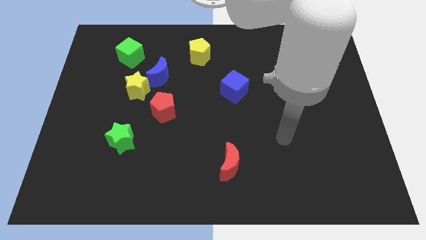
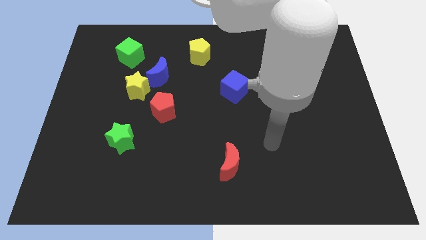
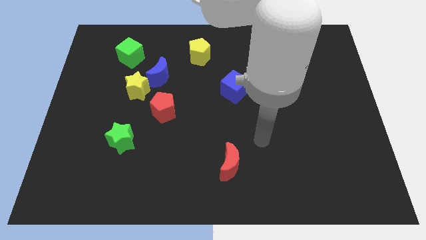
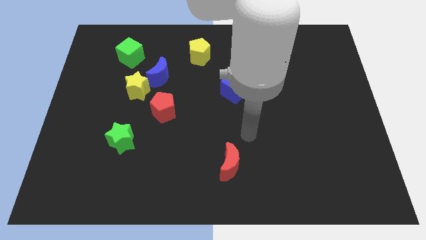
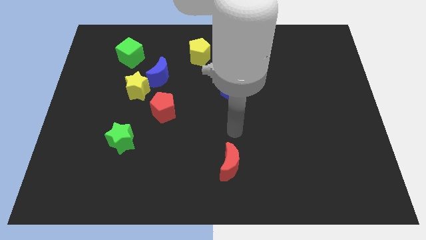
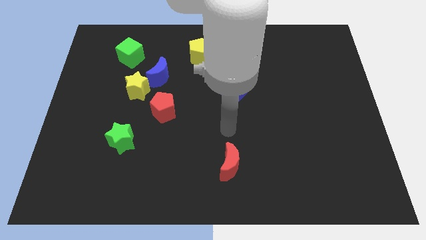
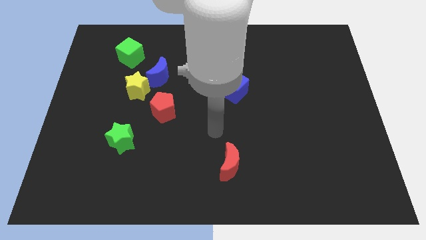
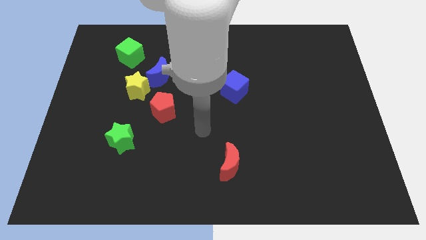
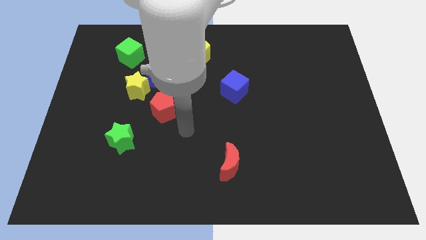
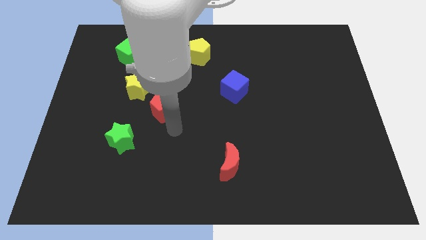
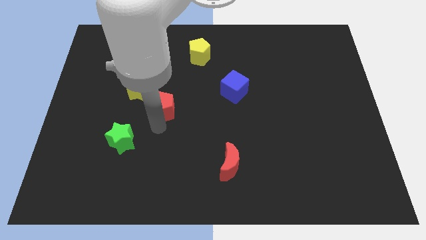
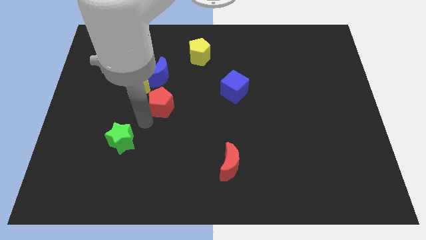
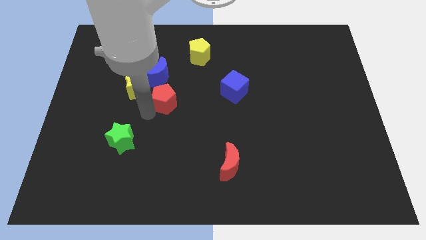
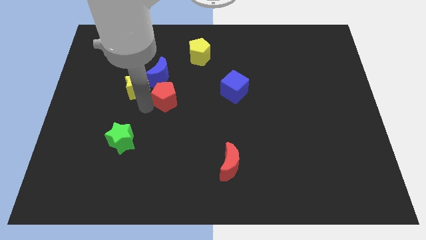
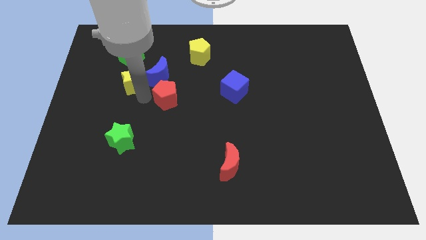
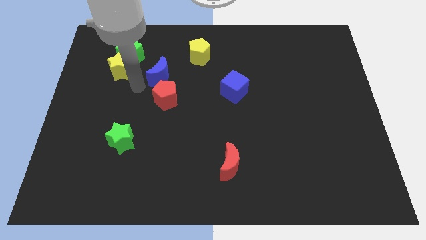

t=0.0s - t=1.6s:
move the blue moon away from the yellow star

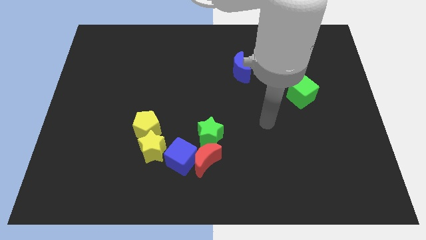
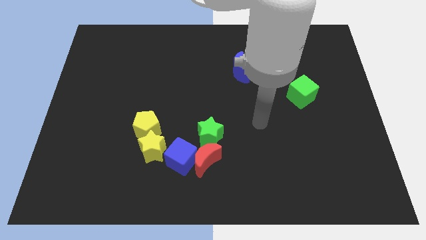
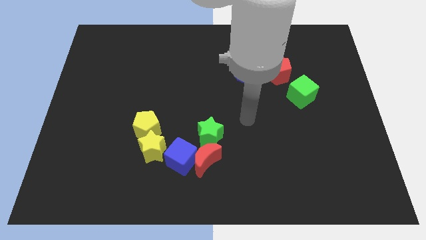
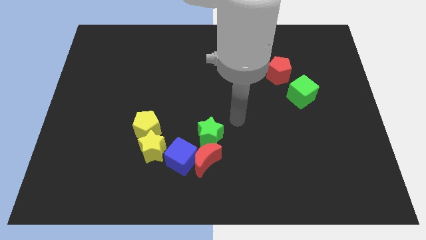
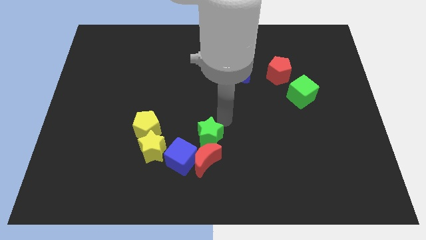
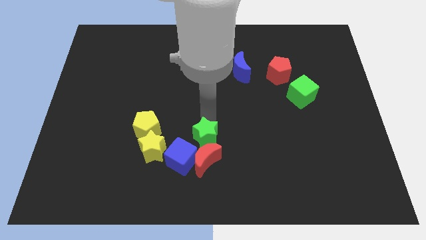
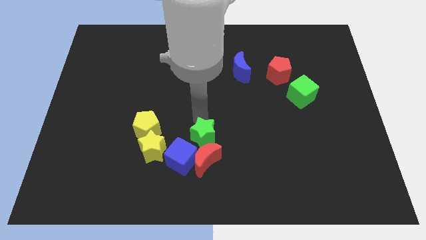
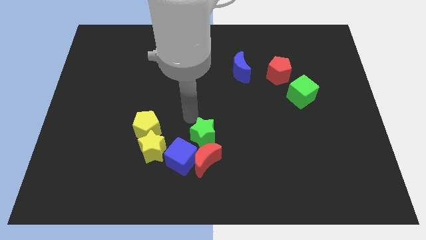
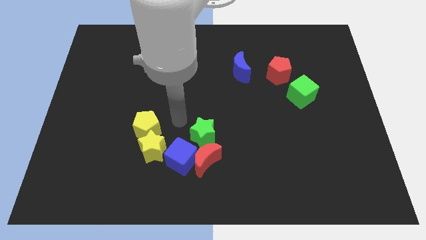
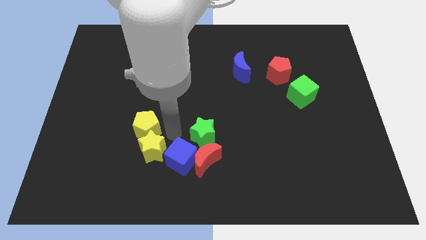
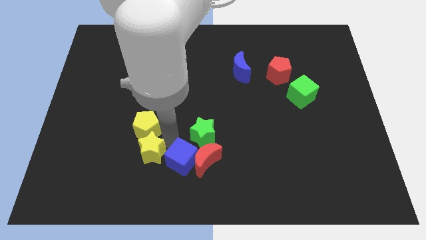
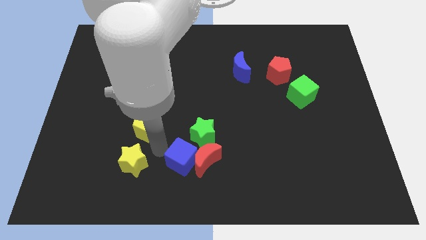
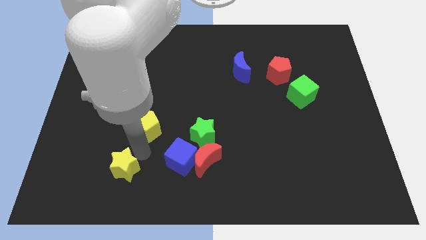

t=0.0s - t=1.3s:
pull the yellow pentagon apart from the yellow star

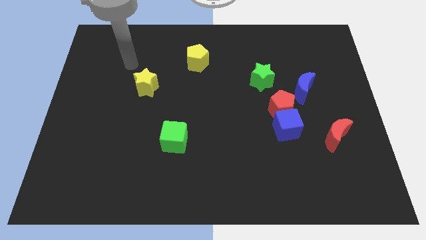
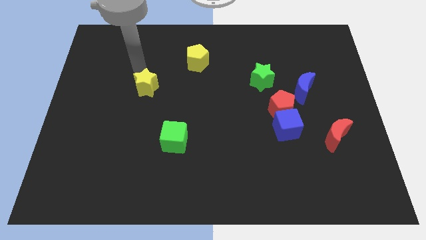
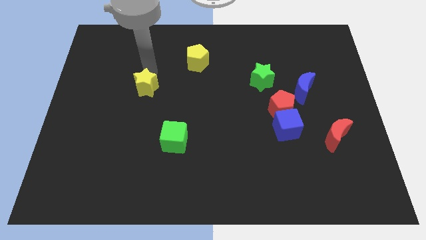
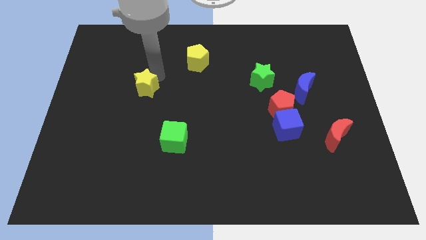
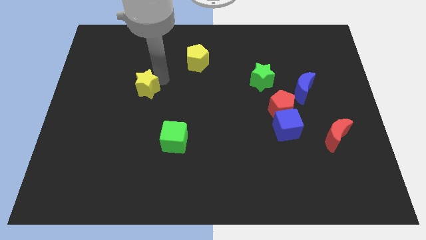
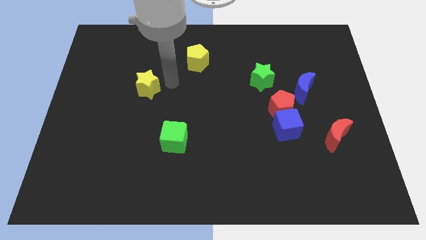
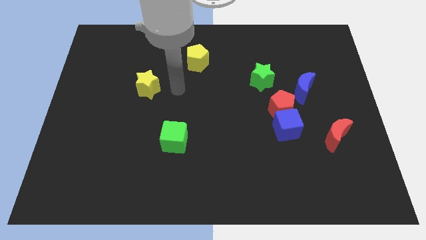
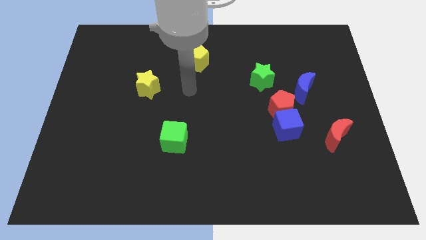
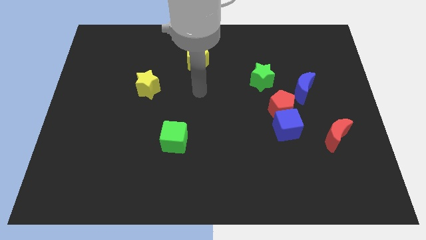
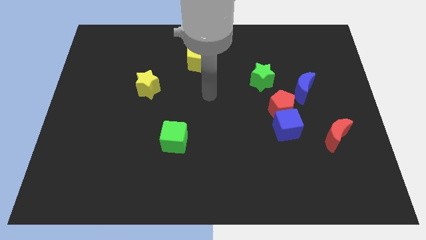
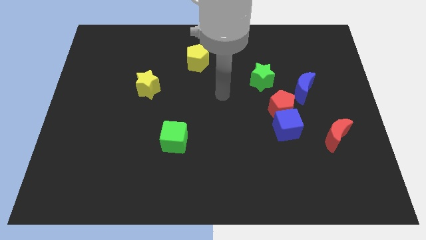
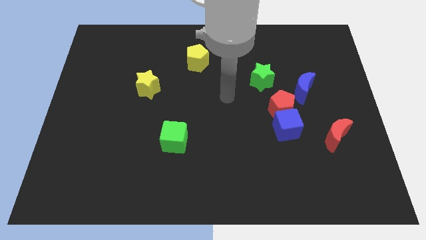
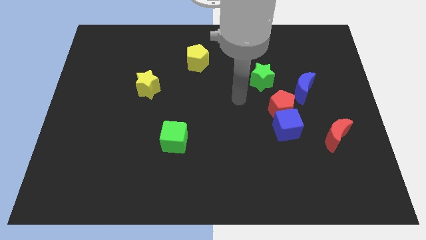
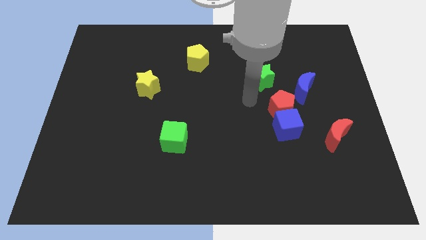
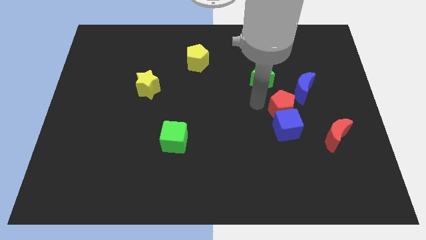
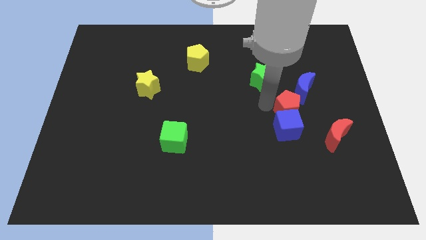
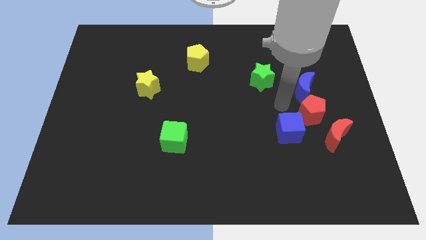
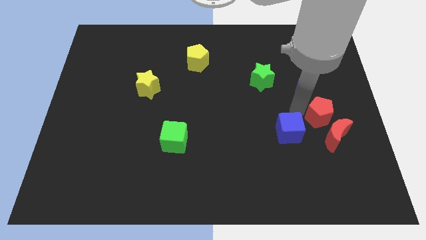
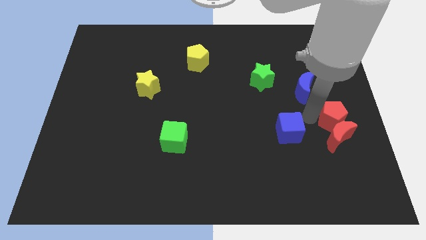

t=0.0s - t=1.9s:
pull the blue cube apart from the red pentagon

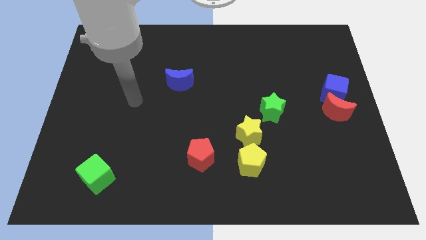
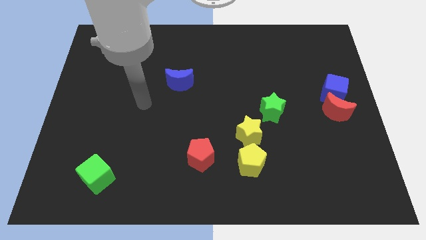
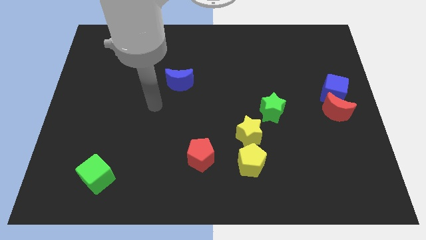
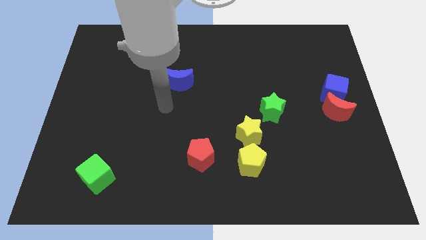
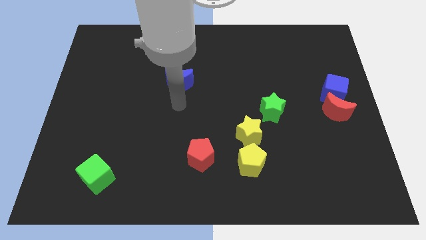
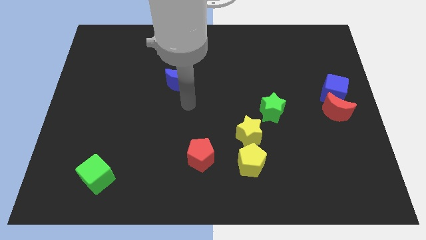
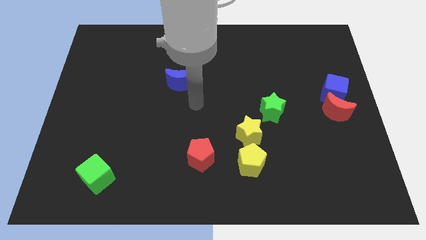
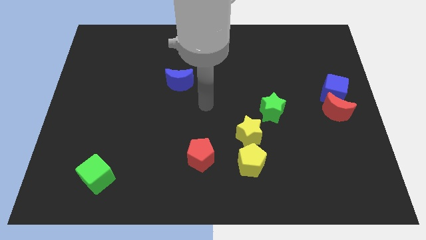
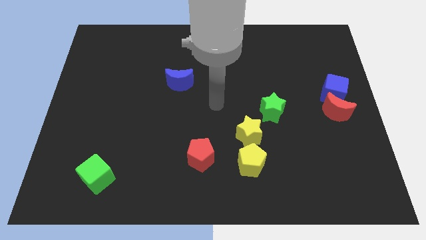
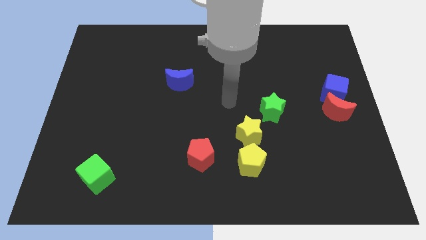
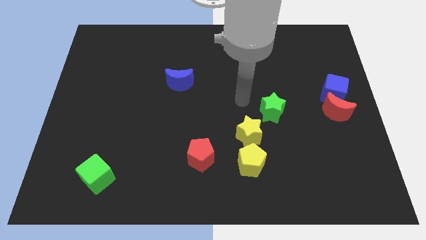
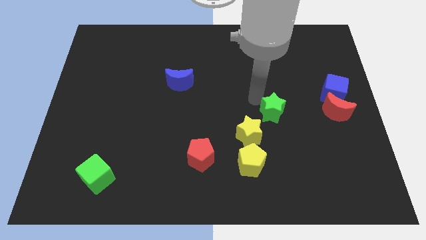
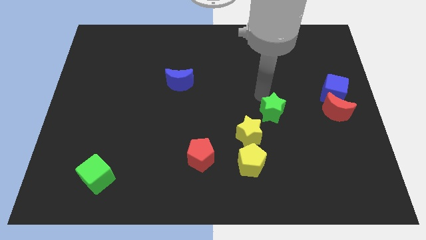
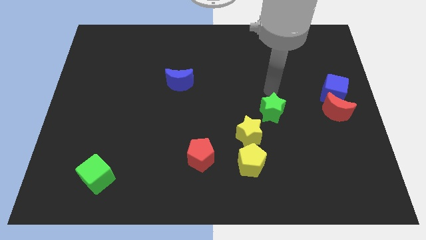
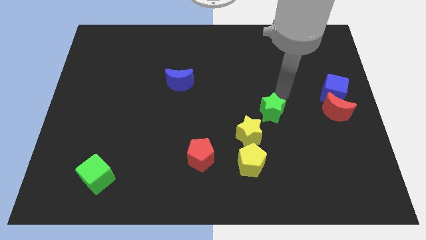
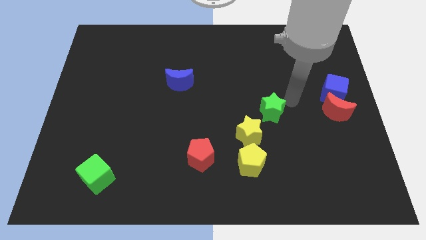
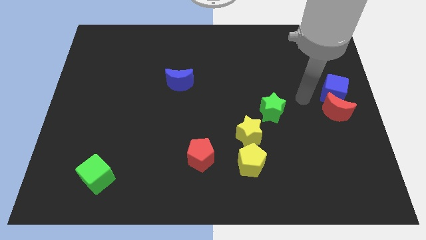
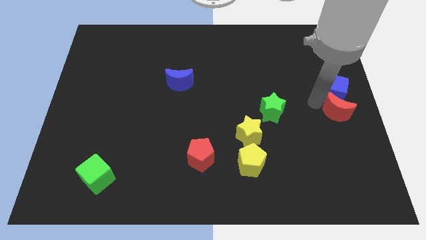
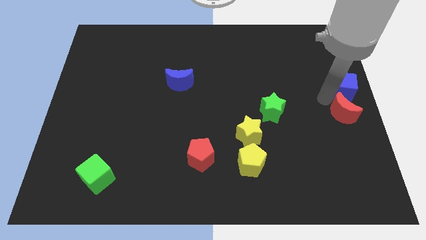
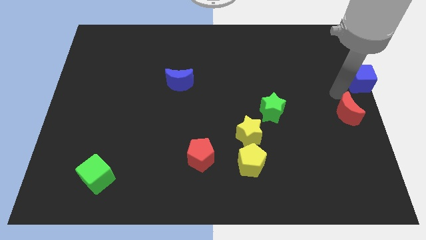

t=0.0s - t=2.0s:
separate the red moon from the blue cube

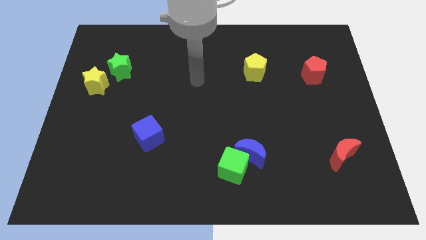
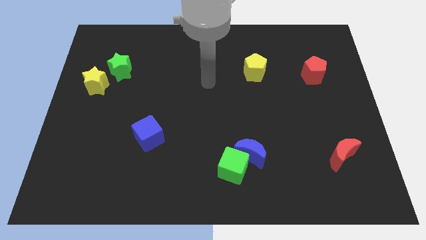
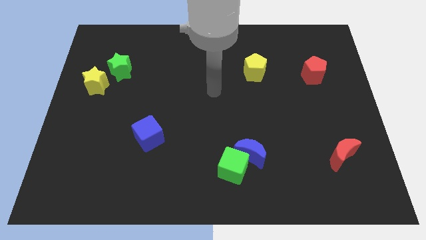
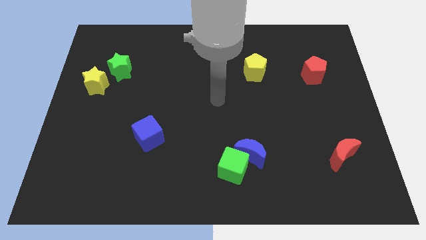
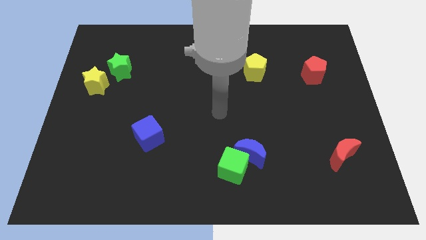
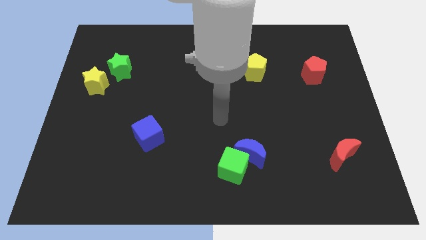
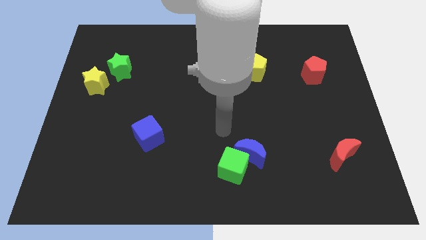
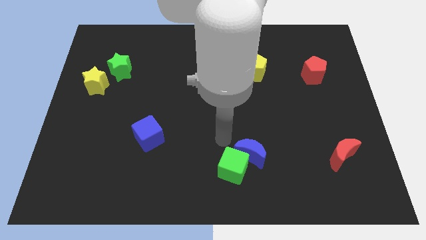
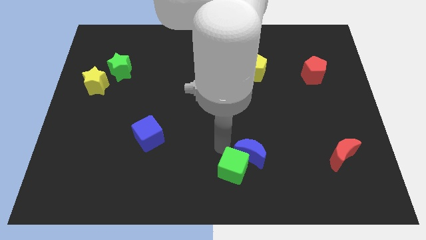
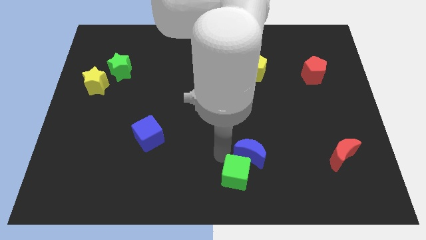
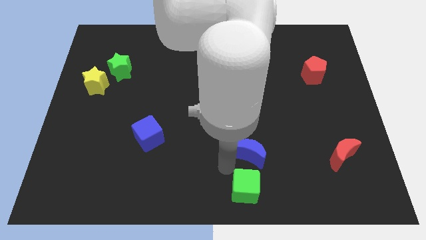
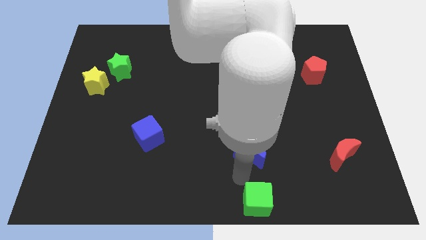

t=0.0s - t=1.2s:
move the blue moon away from the green cube

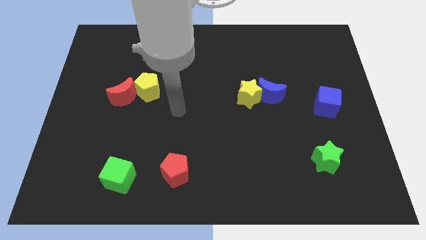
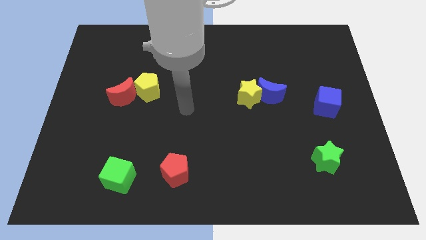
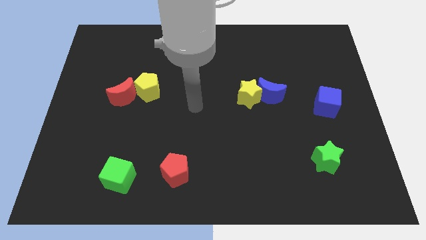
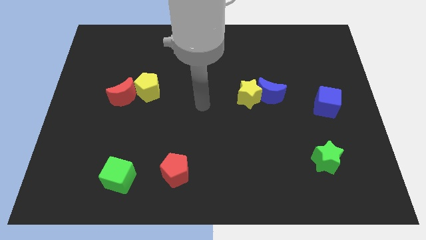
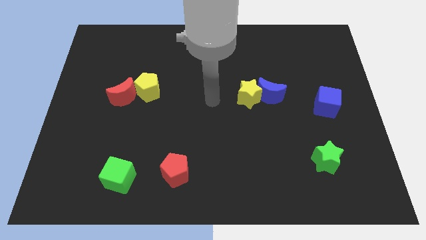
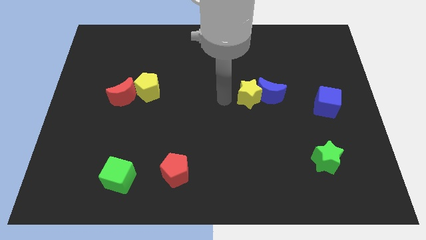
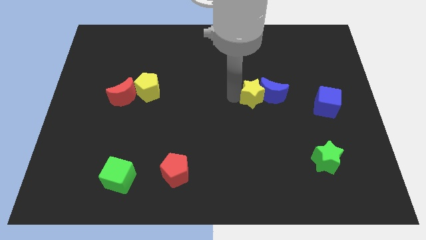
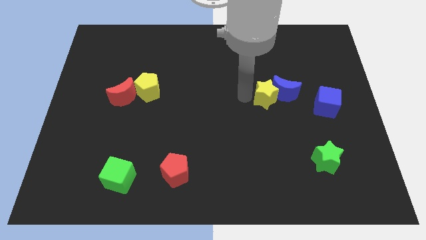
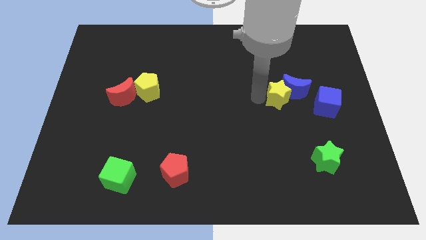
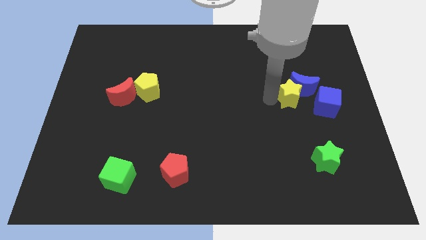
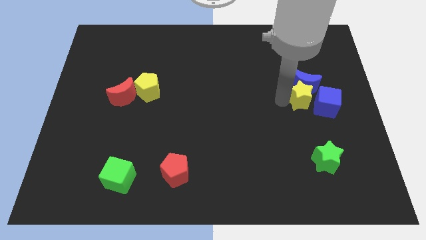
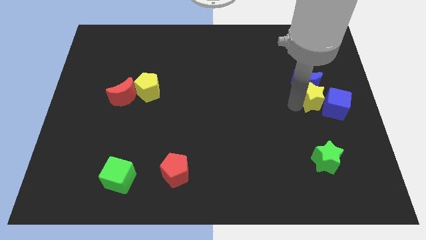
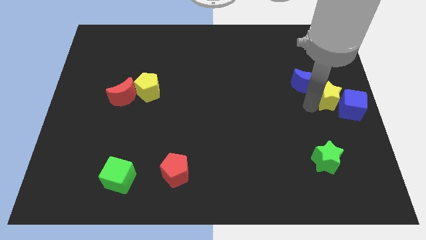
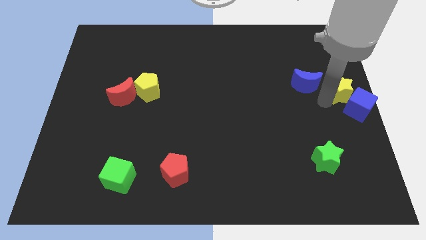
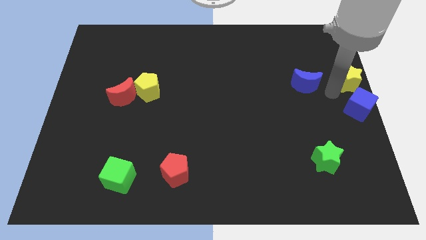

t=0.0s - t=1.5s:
separate the blue moon from the yellow star
